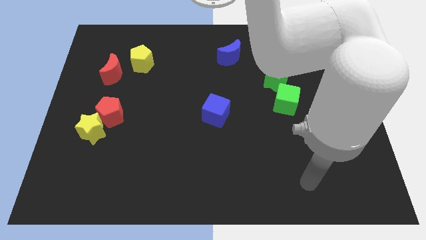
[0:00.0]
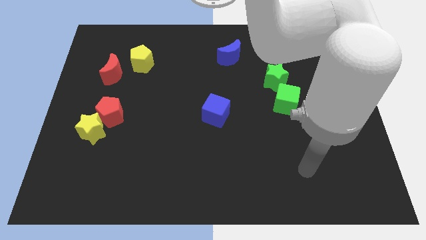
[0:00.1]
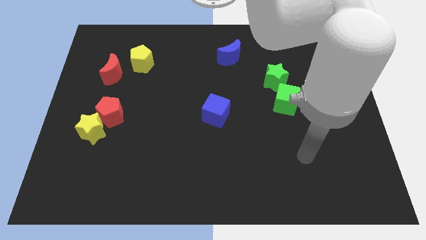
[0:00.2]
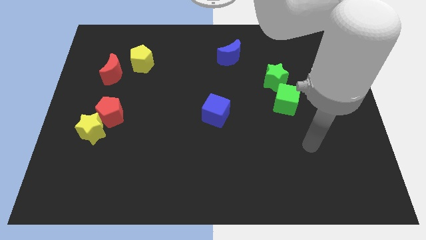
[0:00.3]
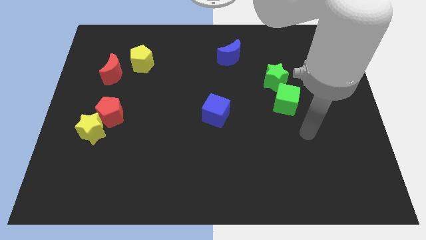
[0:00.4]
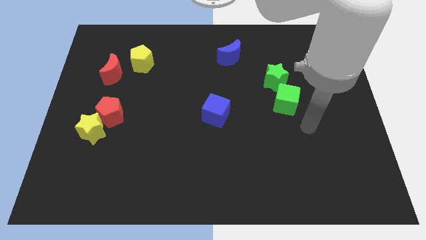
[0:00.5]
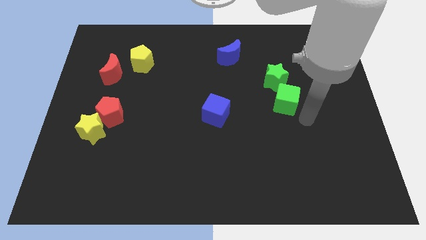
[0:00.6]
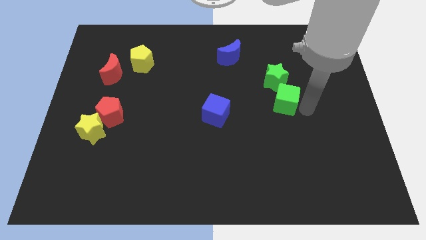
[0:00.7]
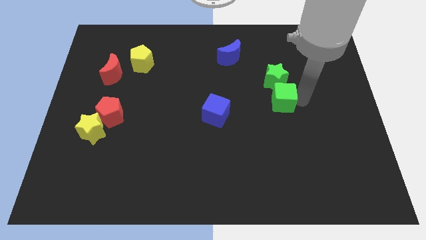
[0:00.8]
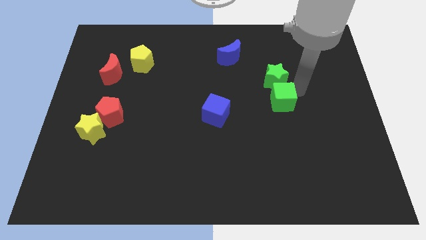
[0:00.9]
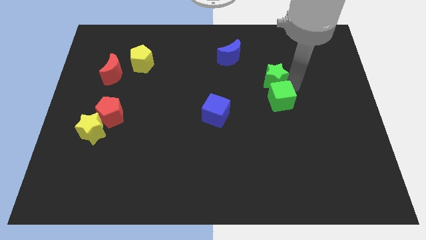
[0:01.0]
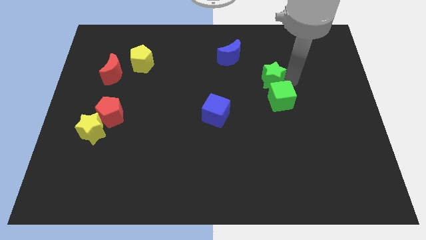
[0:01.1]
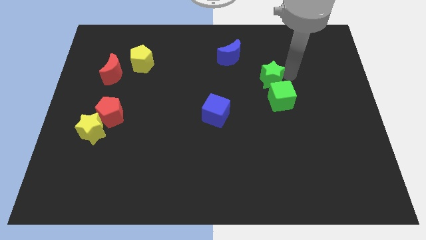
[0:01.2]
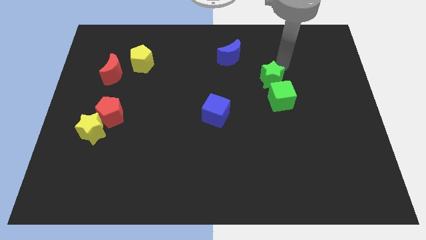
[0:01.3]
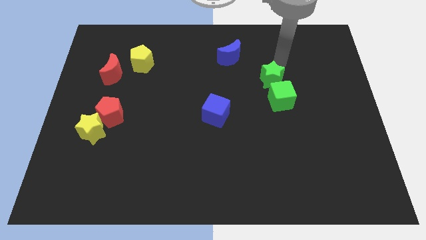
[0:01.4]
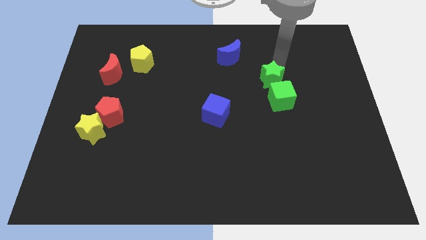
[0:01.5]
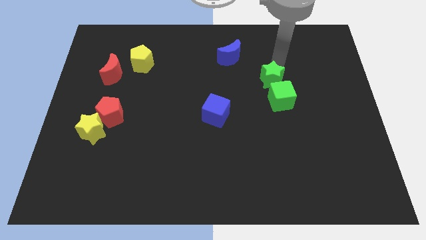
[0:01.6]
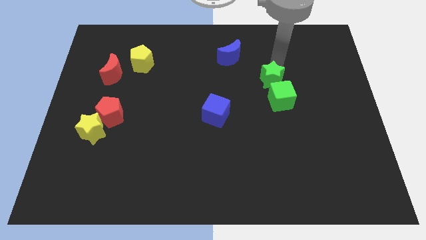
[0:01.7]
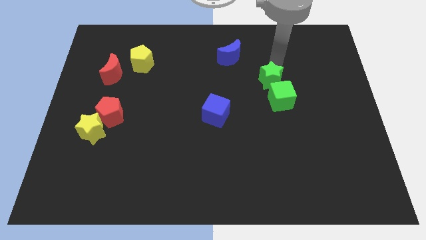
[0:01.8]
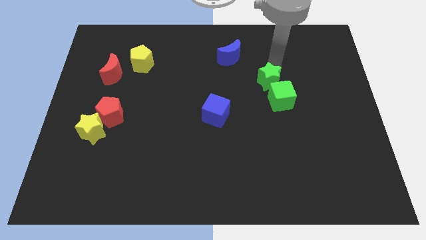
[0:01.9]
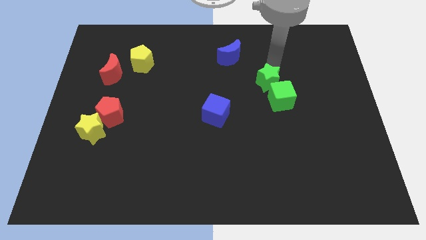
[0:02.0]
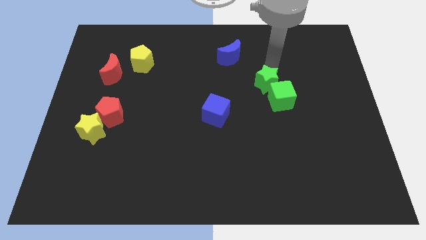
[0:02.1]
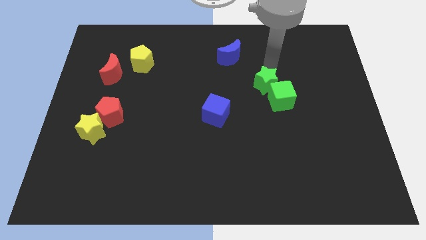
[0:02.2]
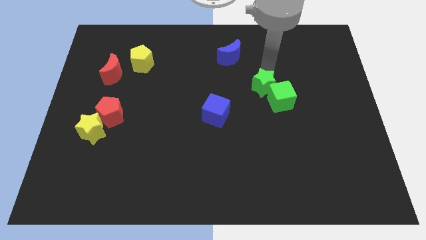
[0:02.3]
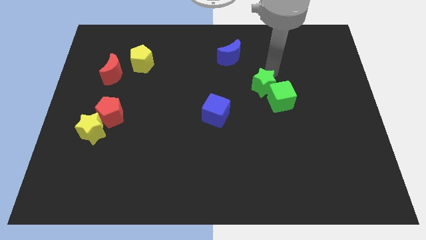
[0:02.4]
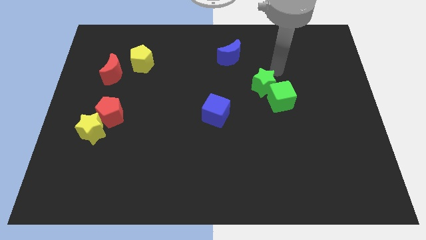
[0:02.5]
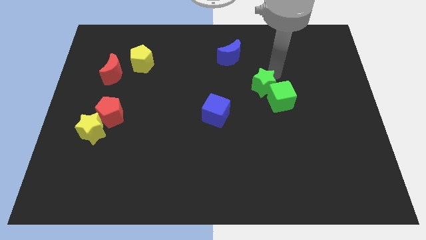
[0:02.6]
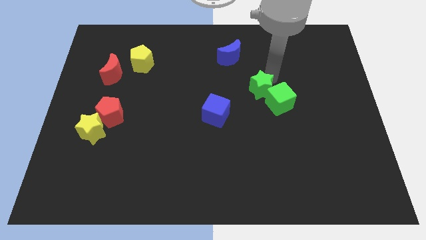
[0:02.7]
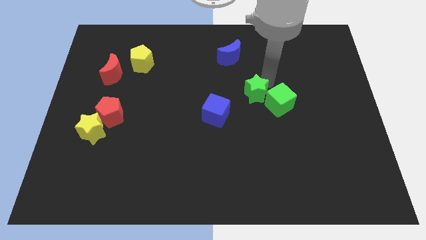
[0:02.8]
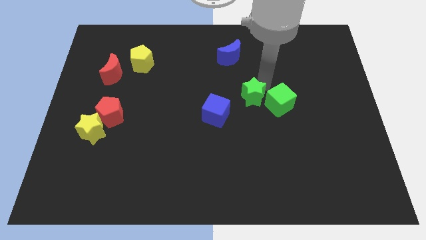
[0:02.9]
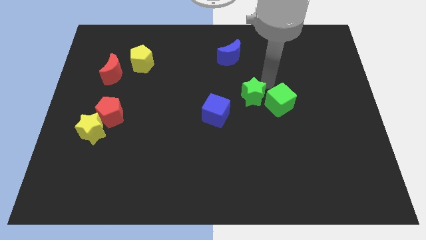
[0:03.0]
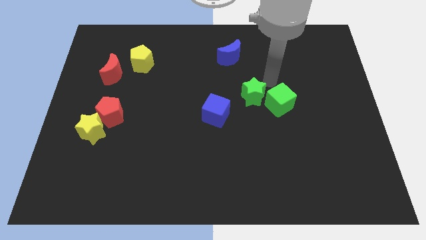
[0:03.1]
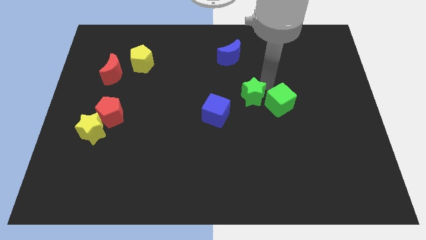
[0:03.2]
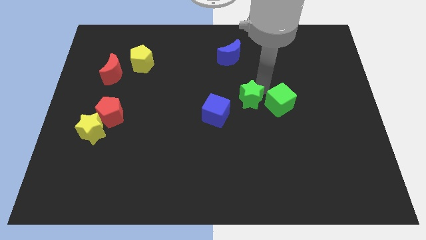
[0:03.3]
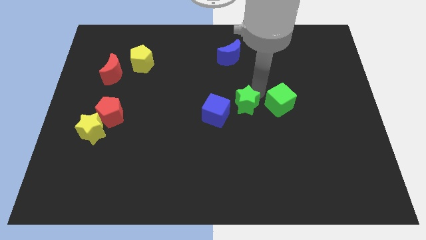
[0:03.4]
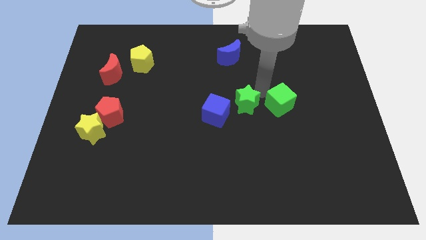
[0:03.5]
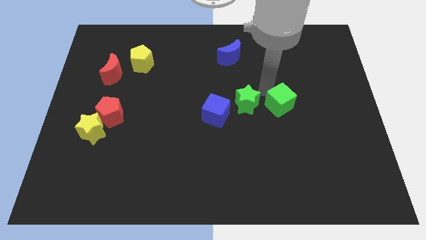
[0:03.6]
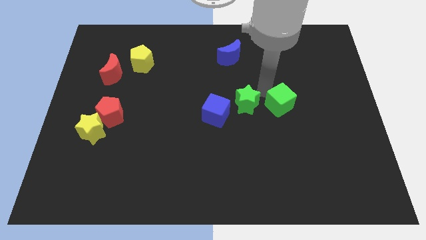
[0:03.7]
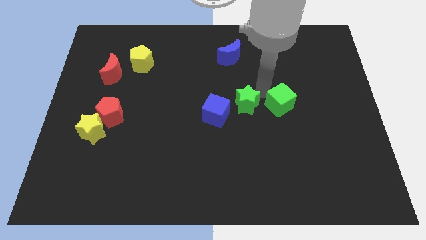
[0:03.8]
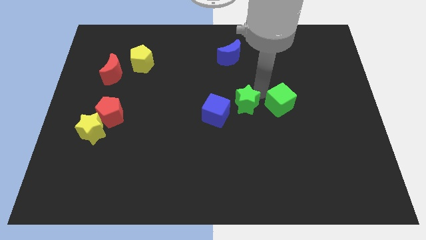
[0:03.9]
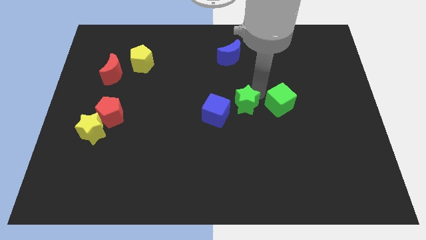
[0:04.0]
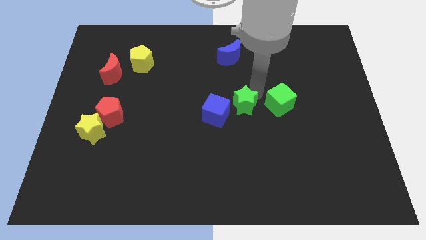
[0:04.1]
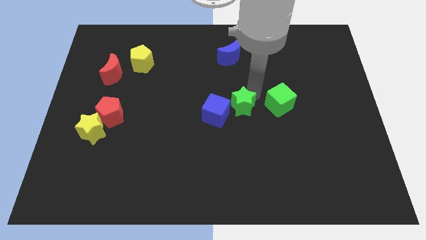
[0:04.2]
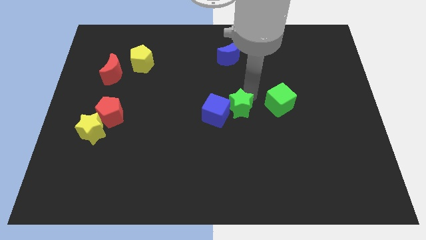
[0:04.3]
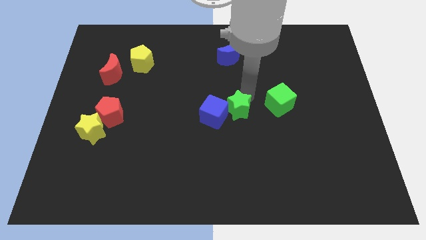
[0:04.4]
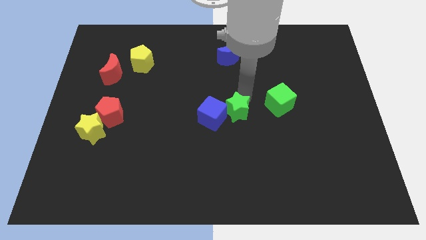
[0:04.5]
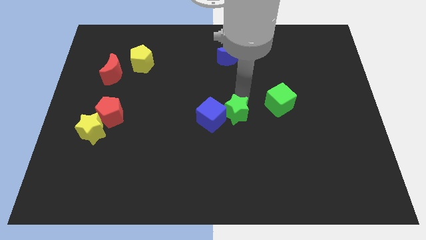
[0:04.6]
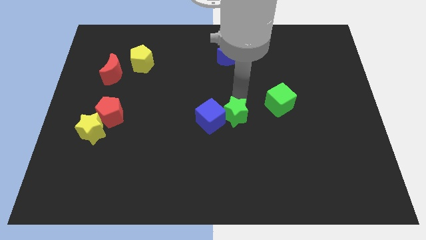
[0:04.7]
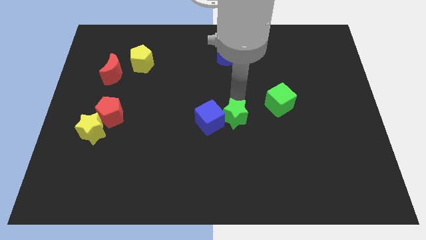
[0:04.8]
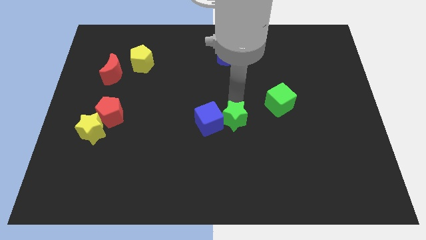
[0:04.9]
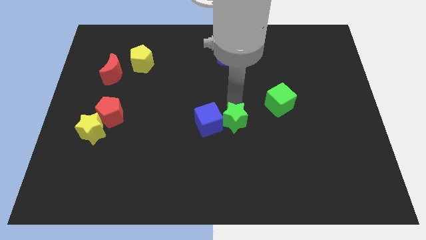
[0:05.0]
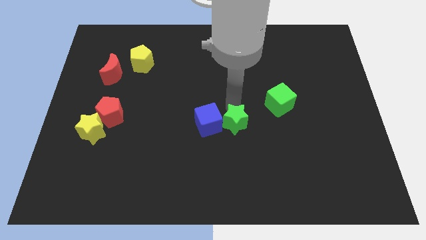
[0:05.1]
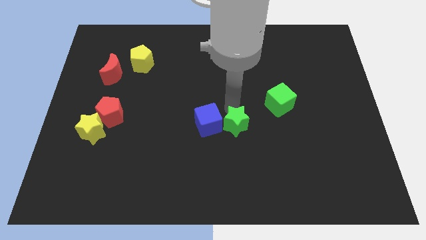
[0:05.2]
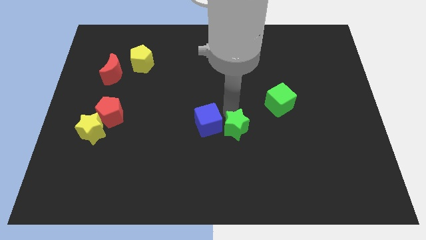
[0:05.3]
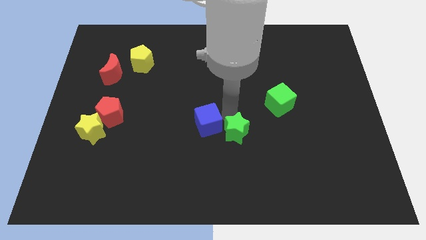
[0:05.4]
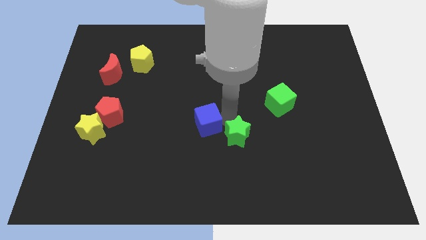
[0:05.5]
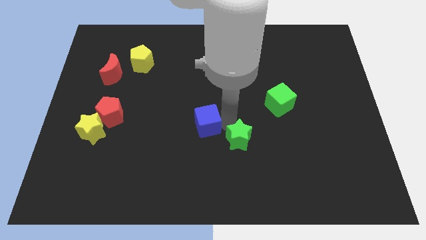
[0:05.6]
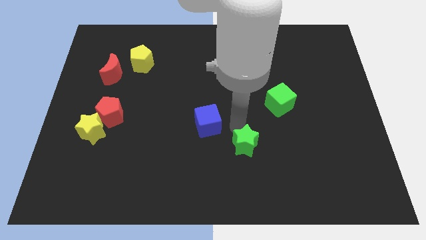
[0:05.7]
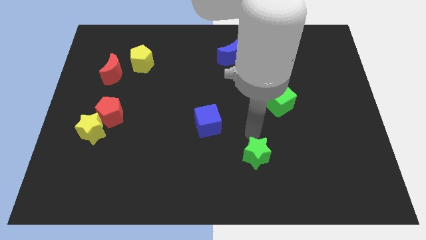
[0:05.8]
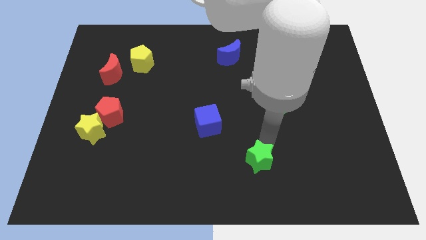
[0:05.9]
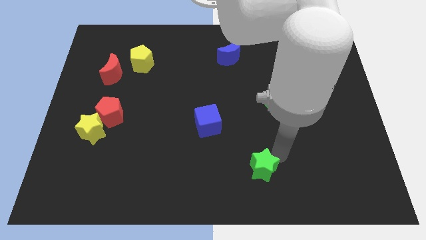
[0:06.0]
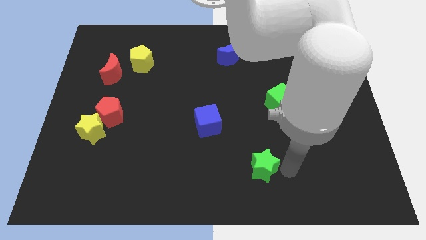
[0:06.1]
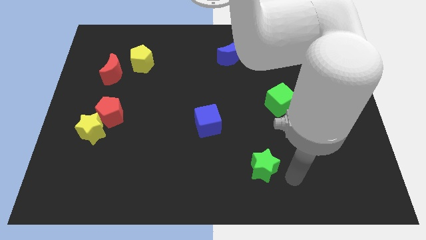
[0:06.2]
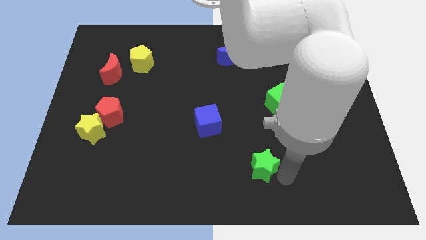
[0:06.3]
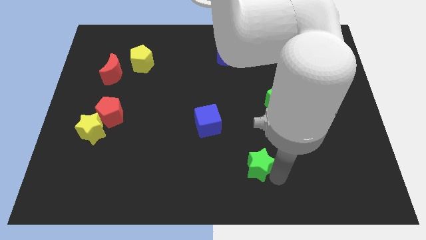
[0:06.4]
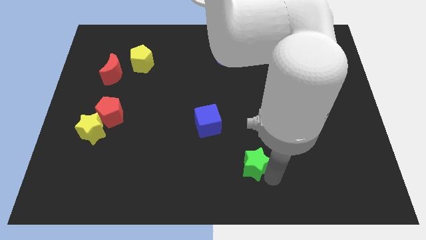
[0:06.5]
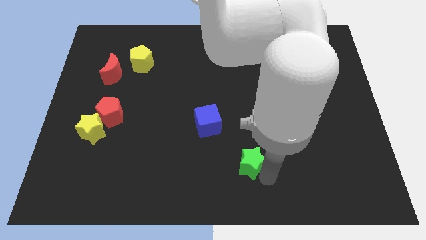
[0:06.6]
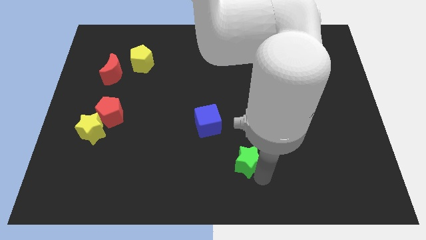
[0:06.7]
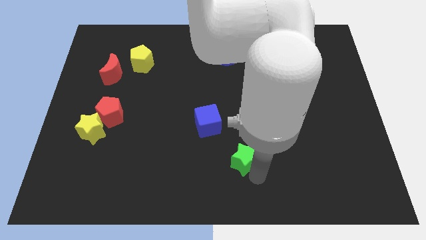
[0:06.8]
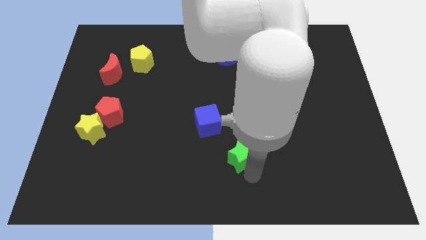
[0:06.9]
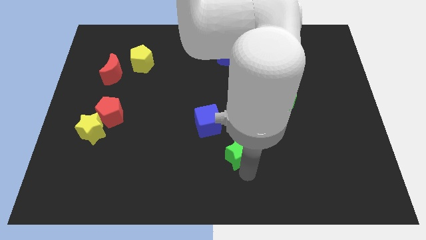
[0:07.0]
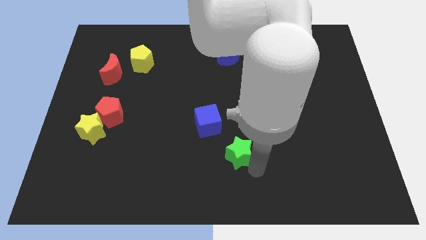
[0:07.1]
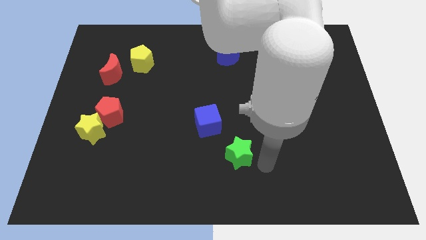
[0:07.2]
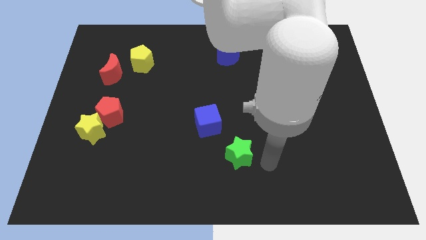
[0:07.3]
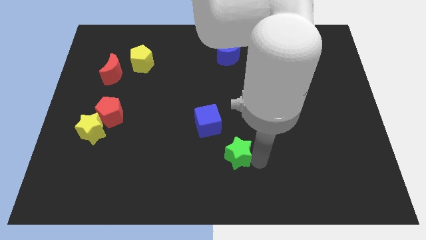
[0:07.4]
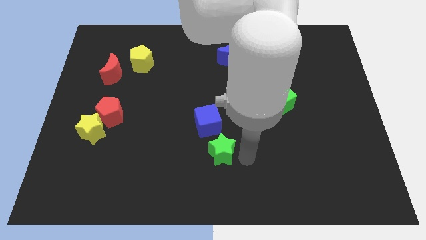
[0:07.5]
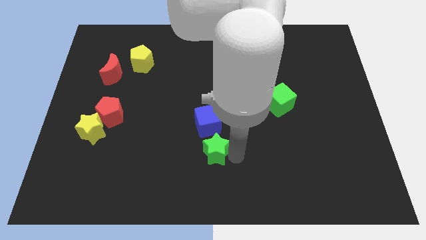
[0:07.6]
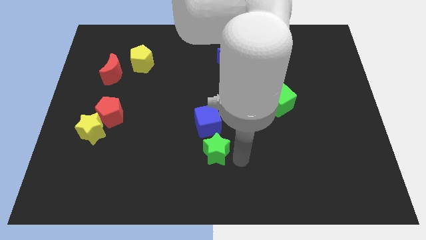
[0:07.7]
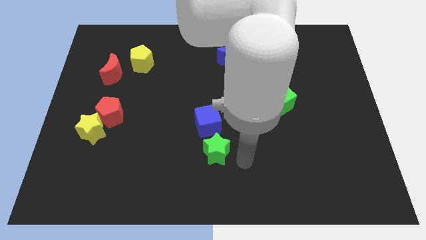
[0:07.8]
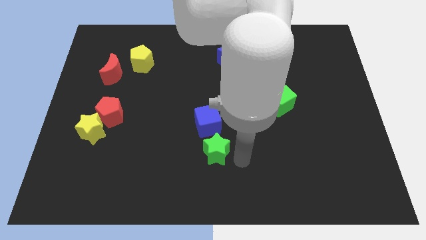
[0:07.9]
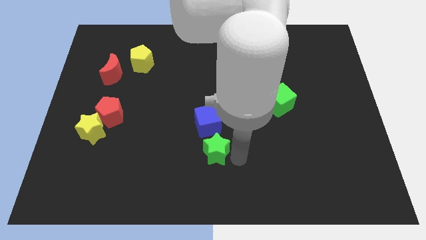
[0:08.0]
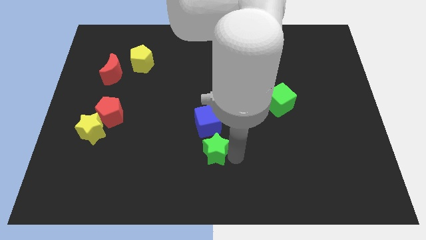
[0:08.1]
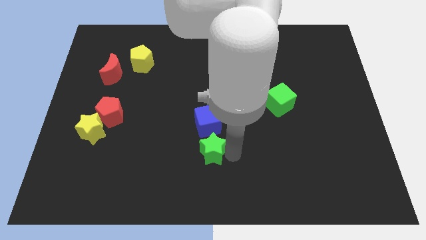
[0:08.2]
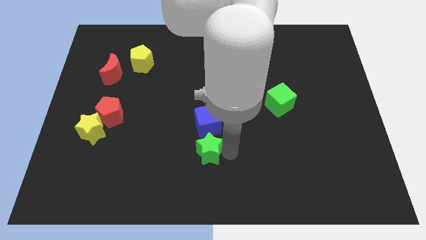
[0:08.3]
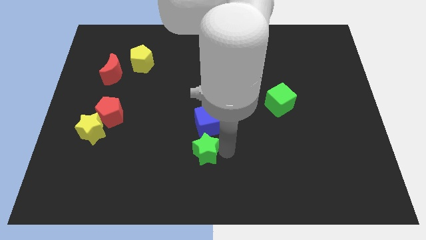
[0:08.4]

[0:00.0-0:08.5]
put the green star diagonally down and to the left of the blue cube
